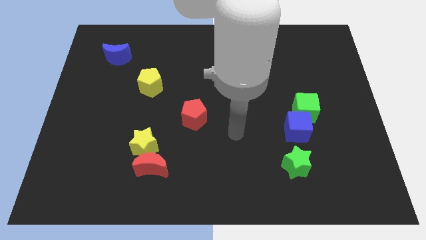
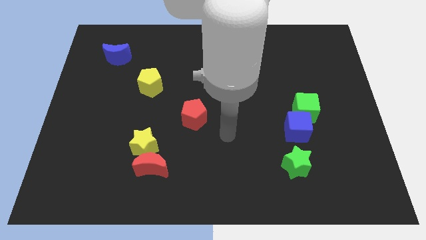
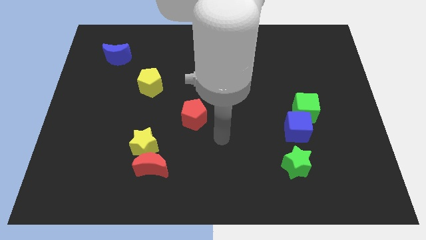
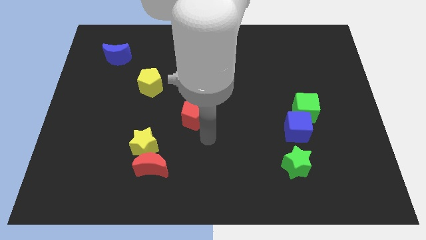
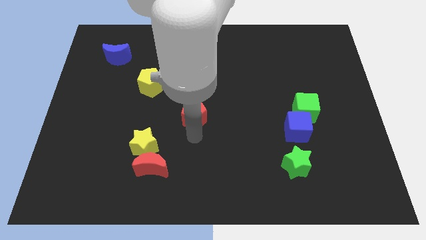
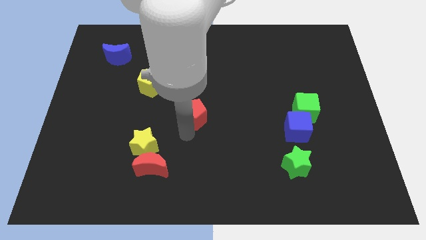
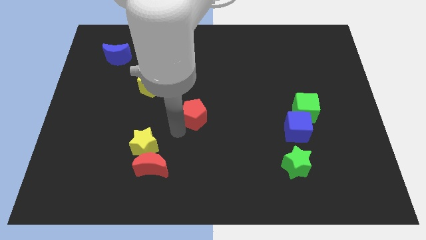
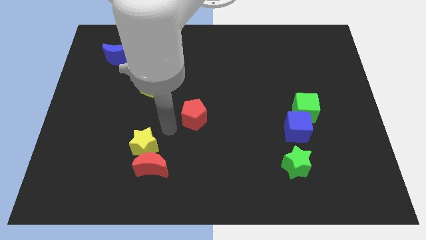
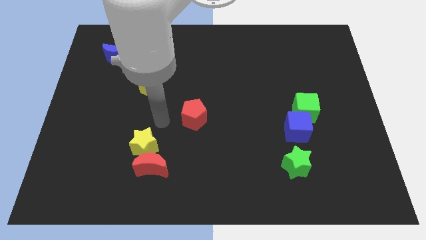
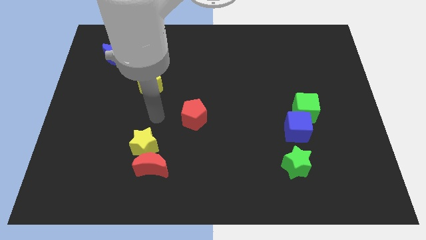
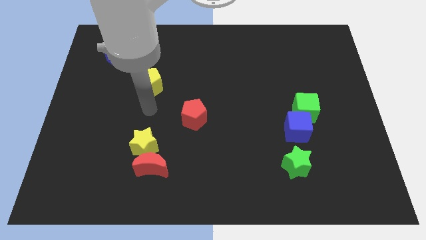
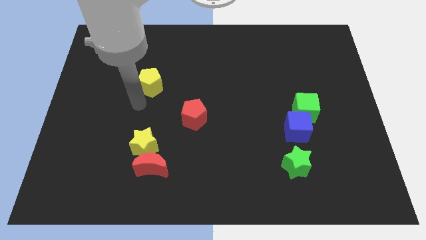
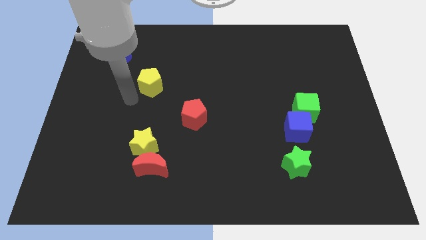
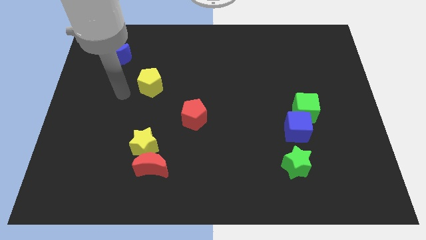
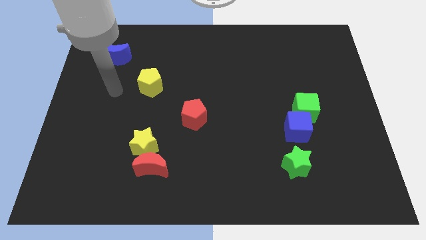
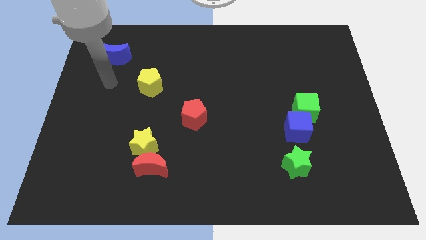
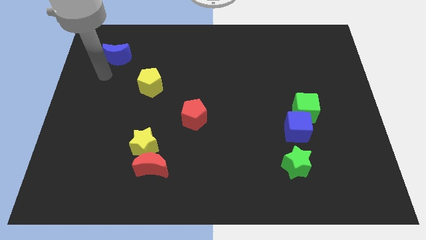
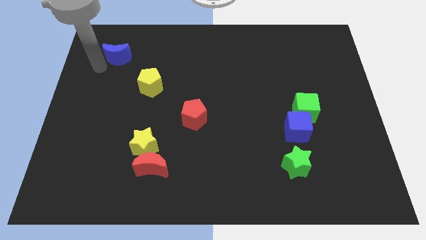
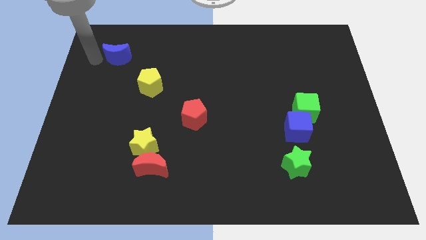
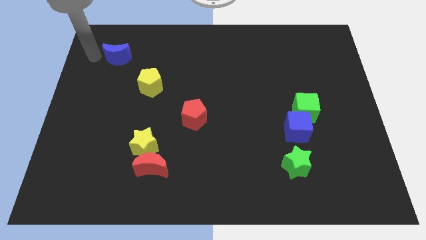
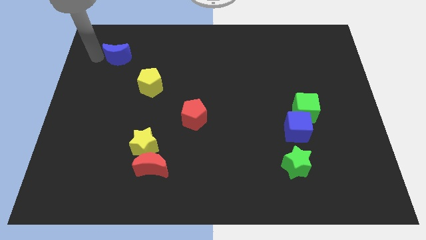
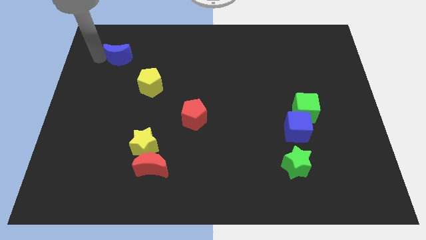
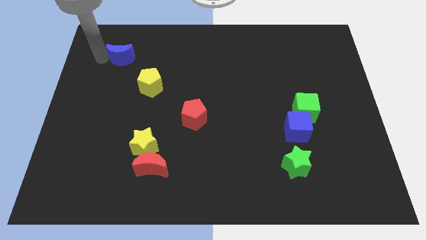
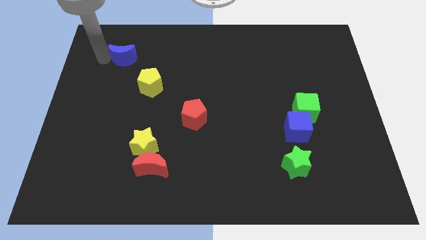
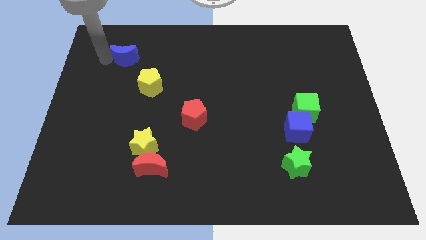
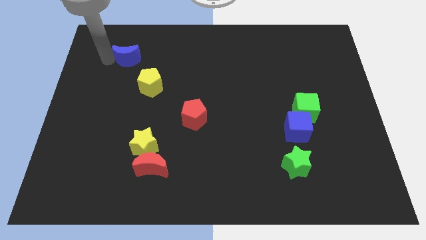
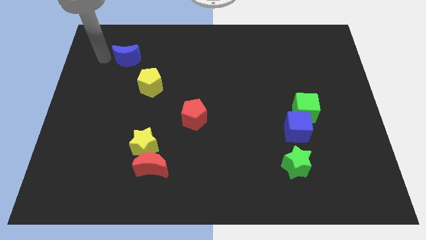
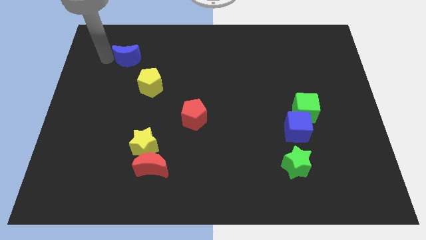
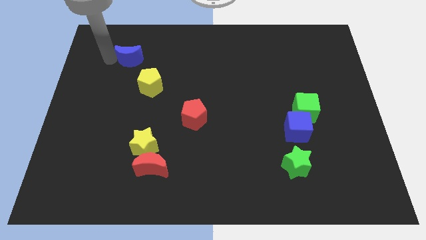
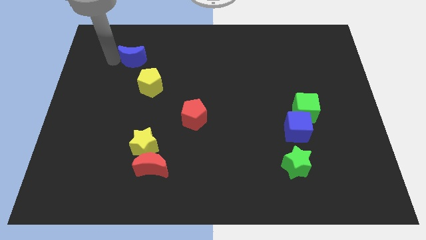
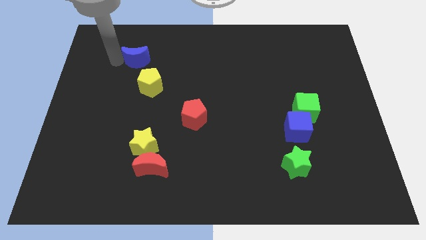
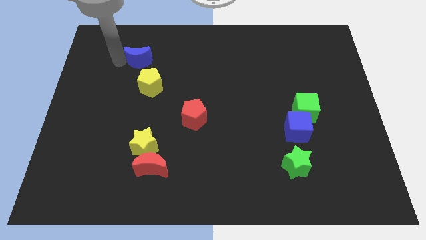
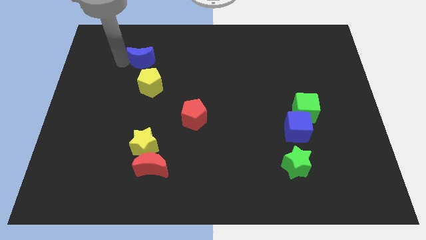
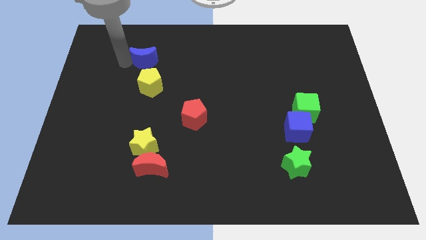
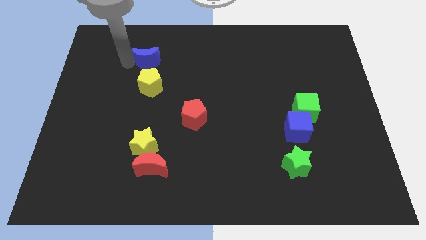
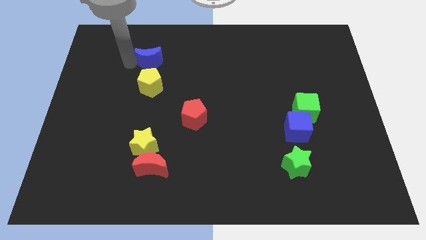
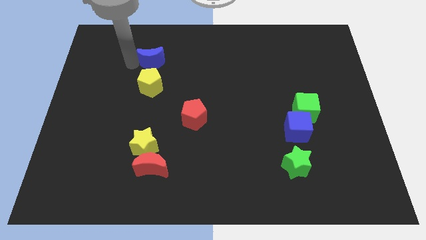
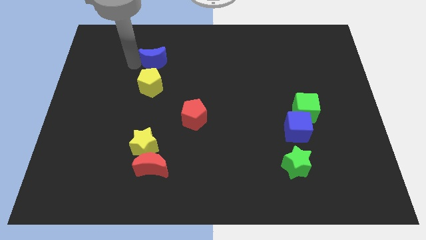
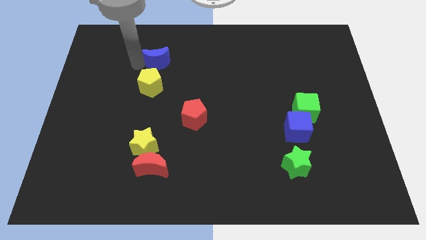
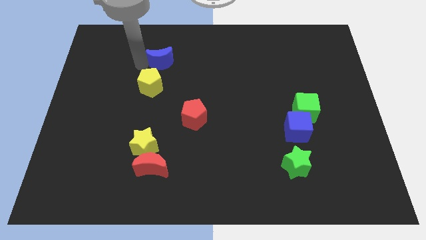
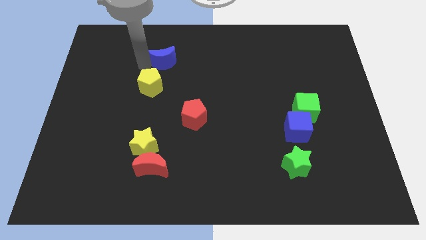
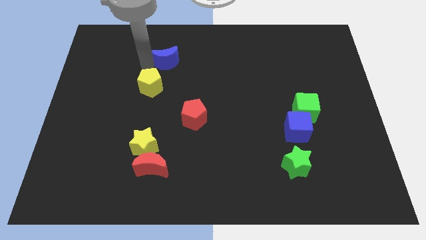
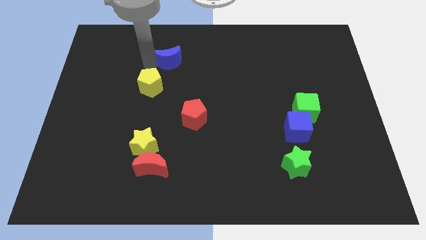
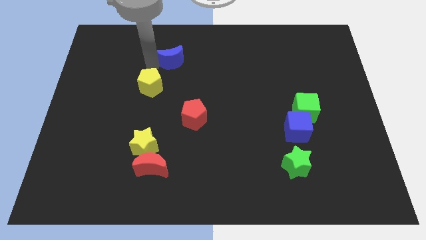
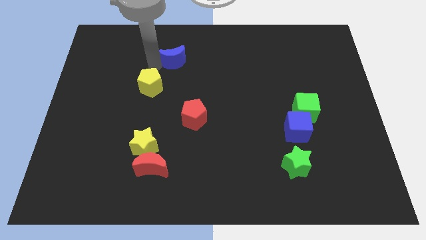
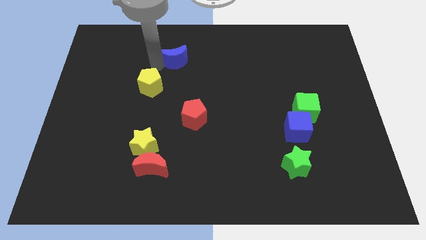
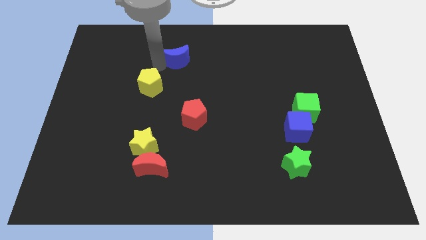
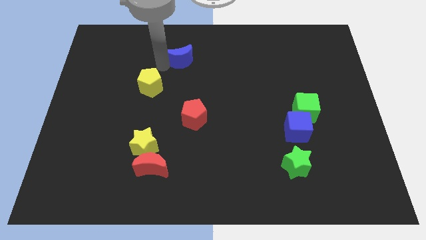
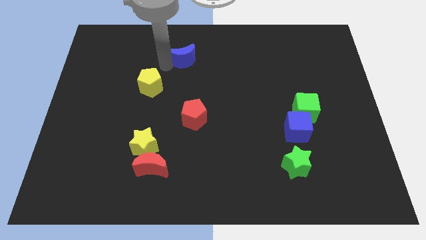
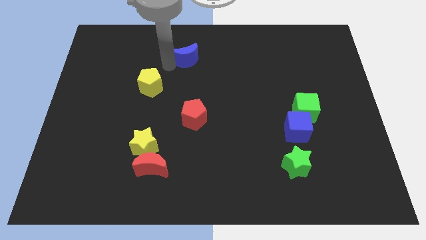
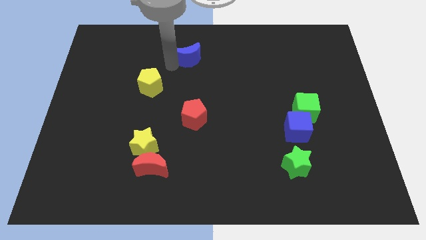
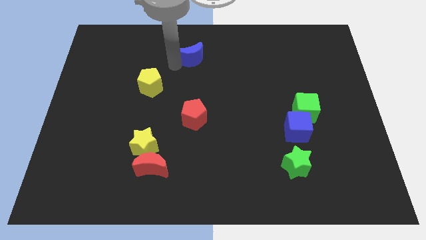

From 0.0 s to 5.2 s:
slide the blue moon right

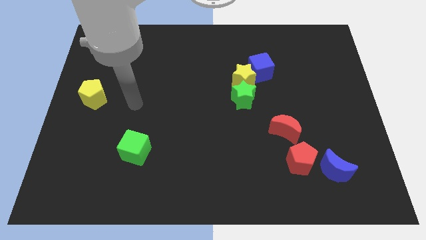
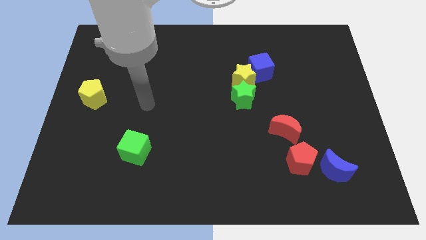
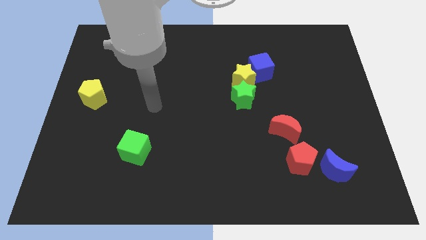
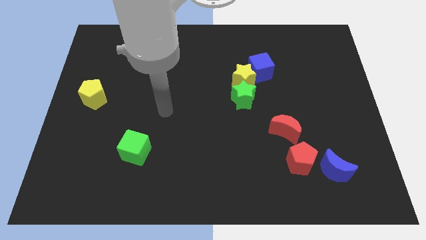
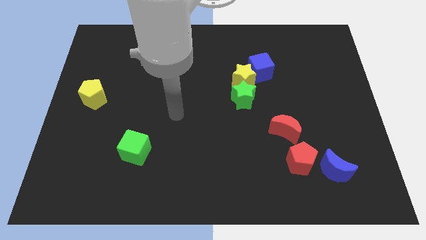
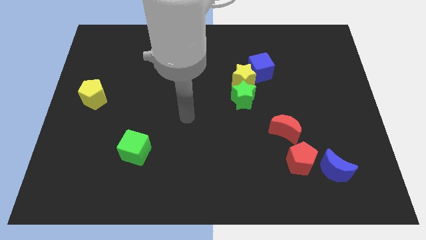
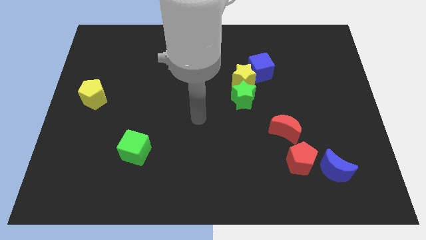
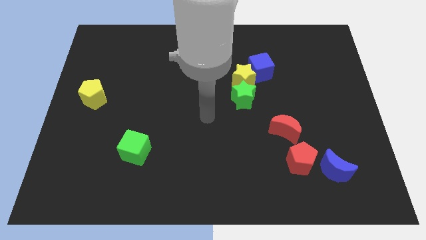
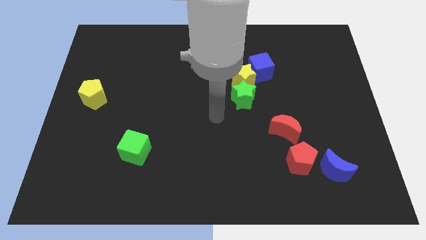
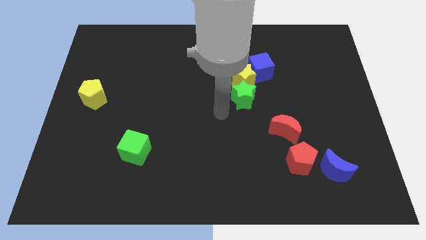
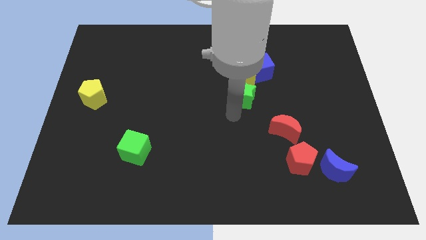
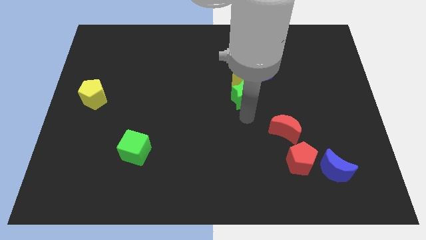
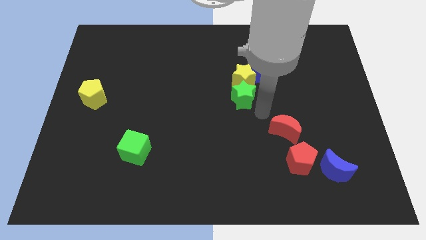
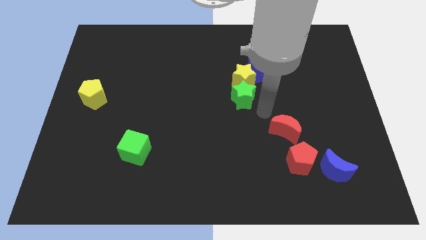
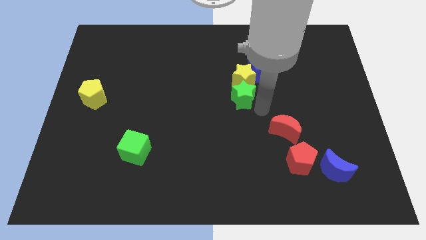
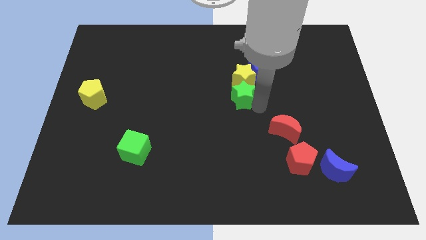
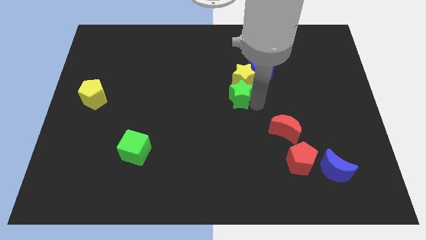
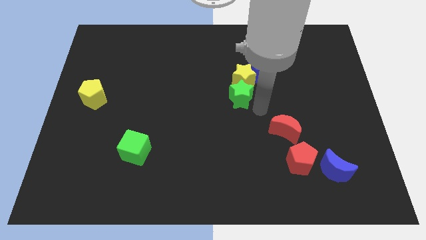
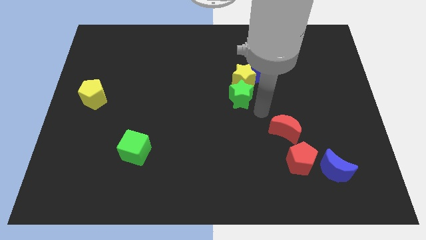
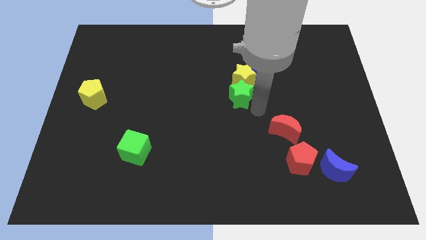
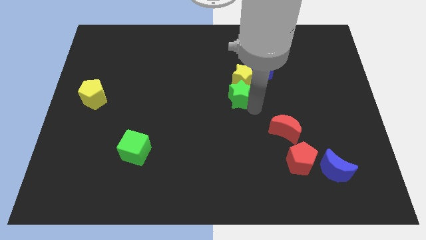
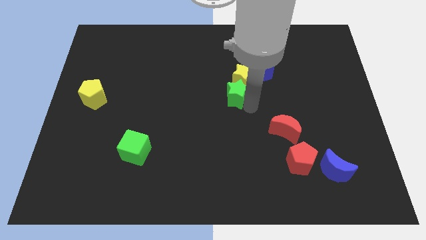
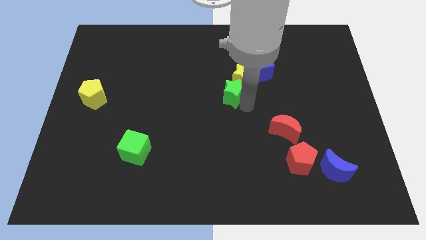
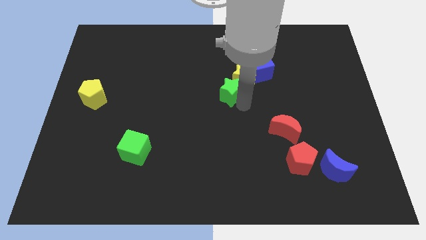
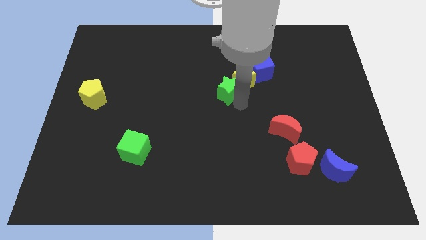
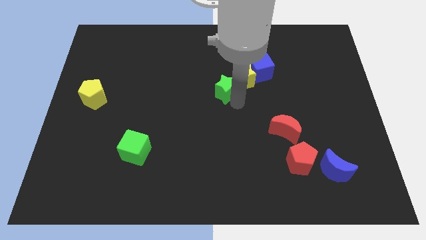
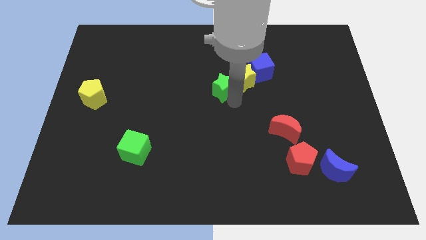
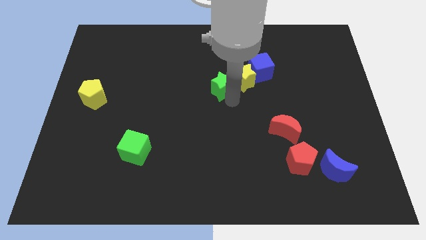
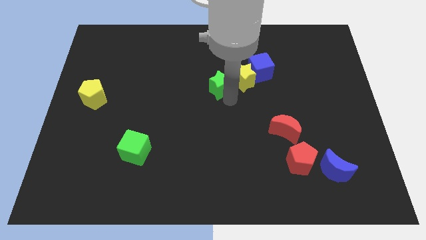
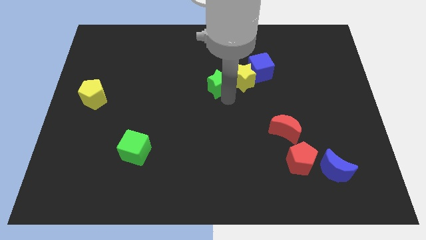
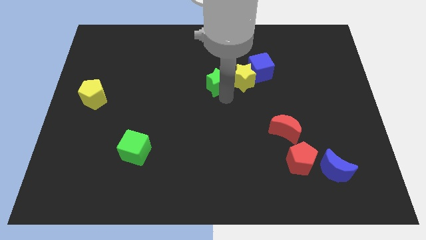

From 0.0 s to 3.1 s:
slide the green star slightly up and left
